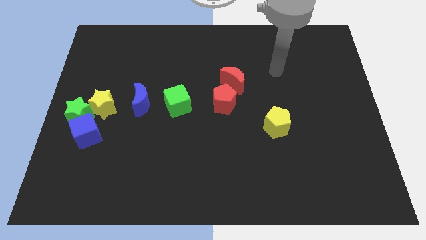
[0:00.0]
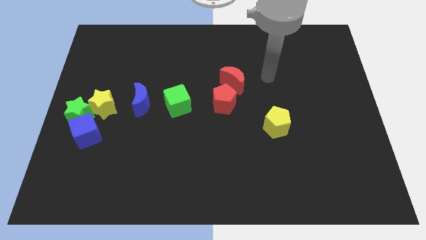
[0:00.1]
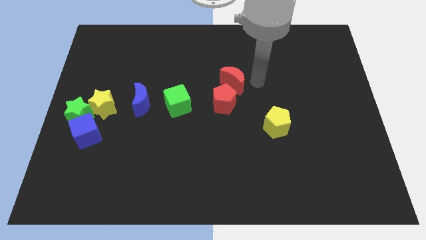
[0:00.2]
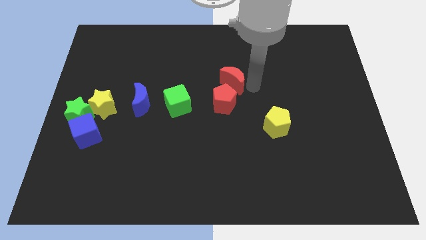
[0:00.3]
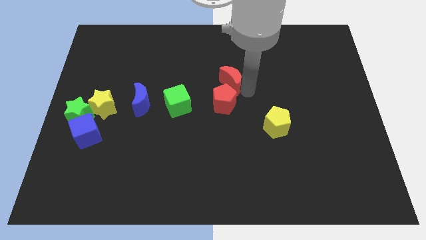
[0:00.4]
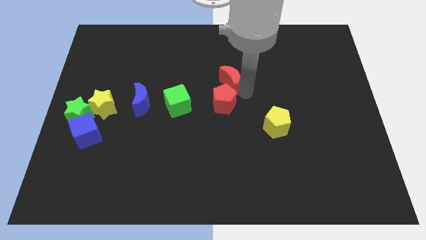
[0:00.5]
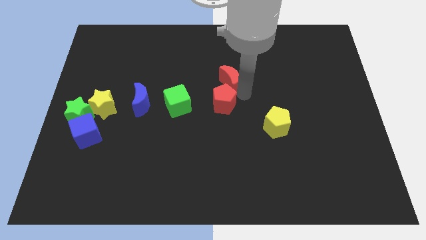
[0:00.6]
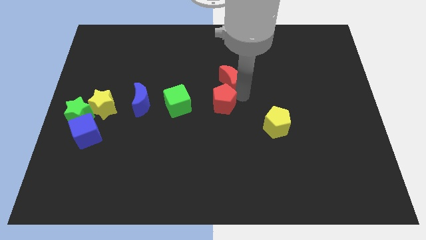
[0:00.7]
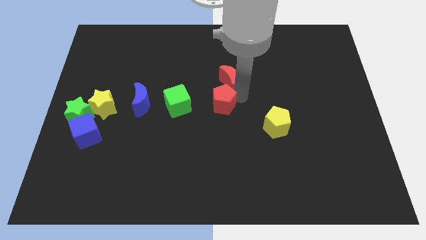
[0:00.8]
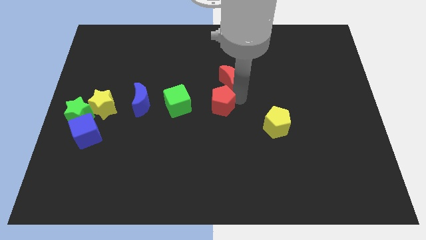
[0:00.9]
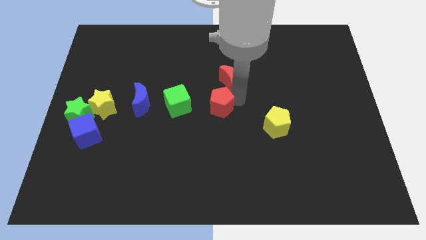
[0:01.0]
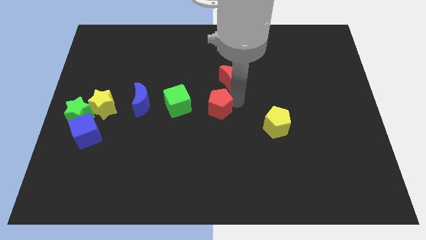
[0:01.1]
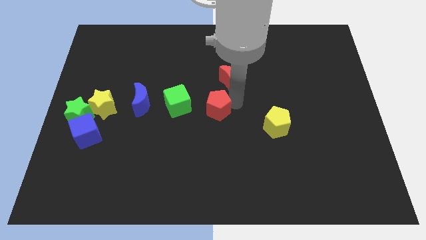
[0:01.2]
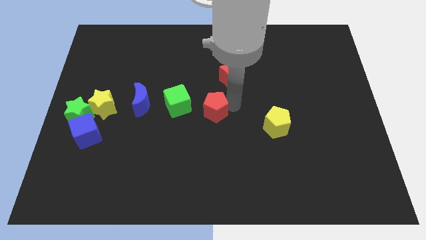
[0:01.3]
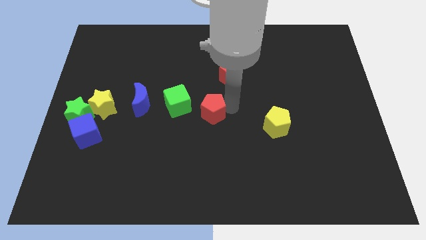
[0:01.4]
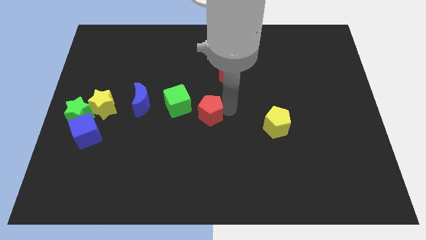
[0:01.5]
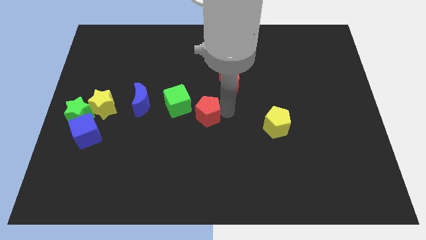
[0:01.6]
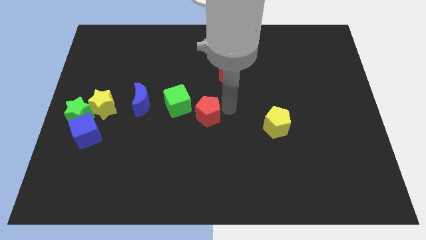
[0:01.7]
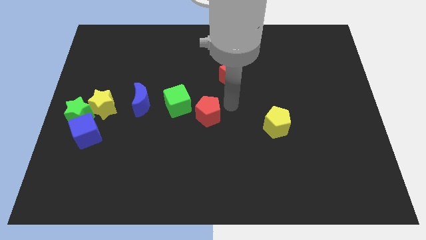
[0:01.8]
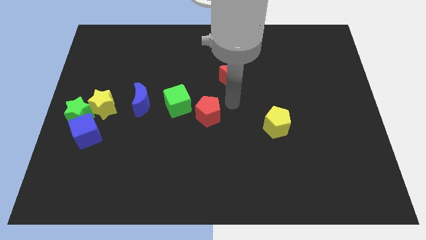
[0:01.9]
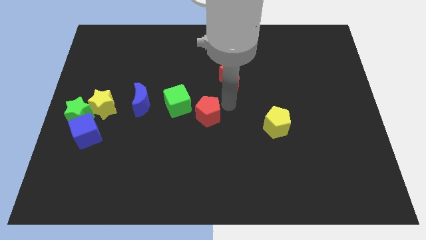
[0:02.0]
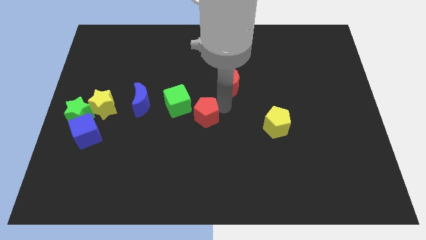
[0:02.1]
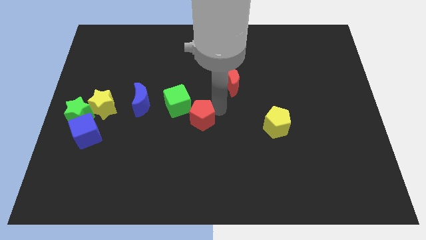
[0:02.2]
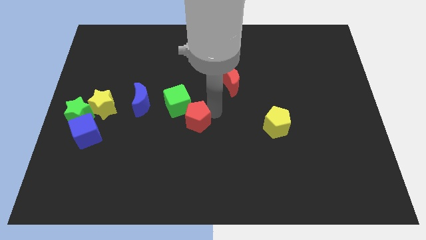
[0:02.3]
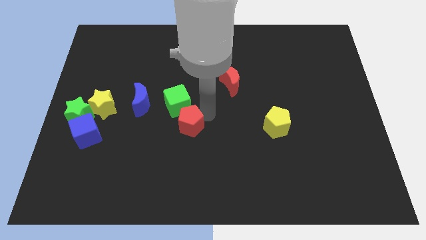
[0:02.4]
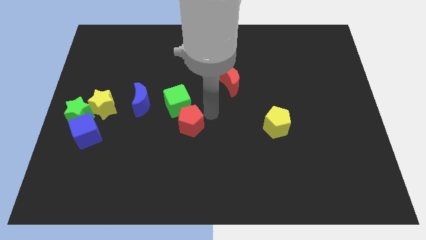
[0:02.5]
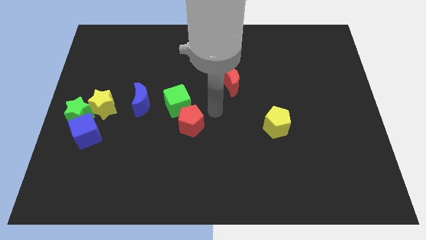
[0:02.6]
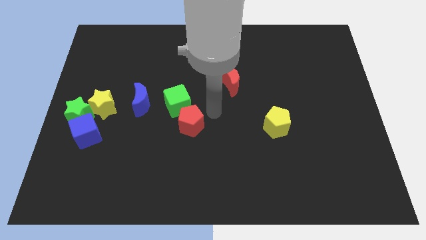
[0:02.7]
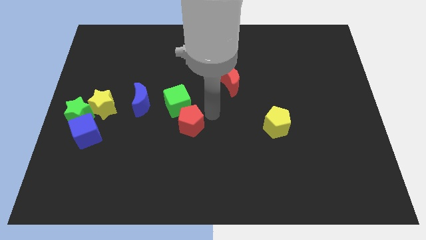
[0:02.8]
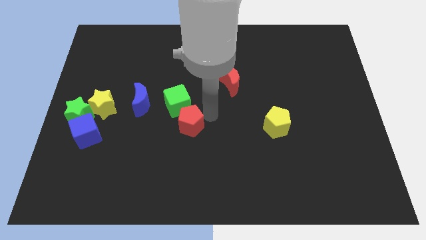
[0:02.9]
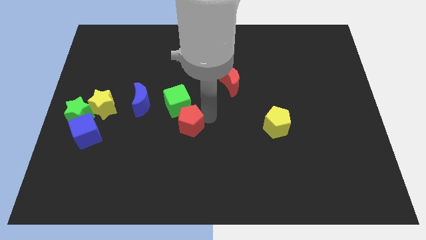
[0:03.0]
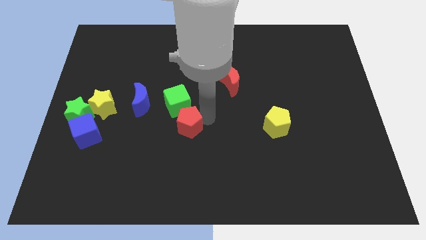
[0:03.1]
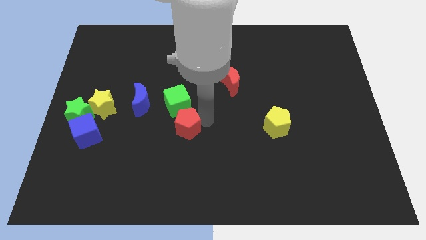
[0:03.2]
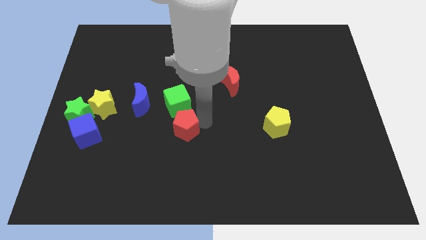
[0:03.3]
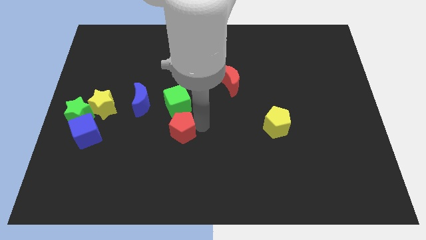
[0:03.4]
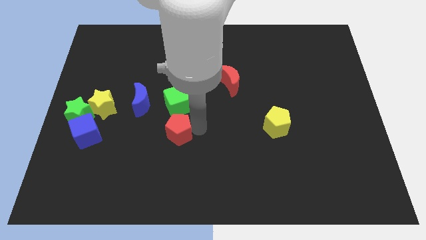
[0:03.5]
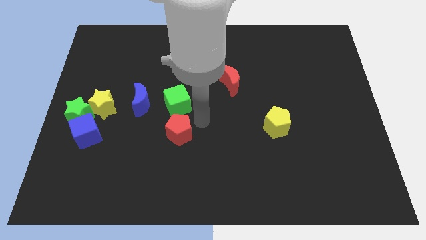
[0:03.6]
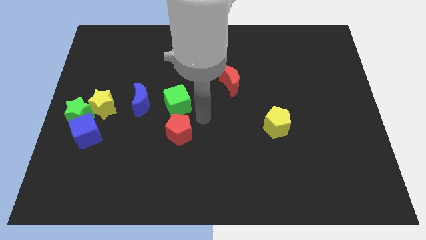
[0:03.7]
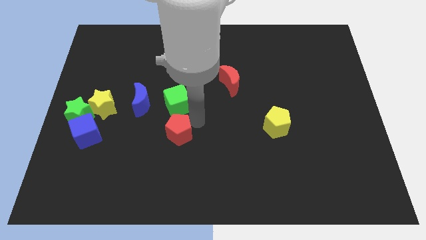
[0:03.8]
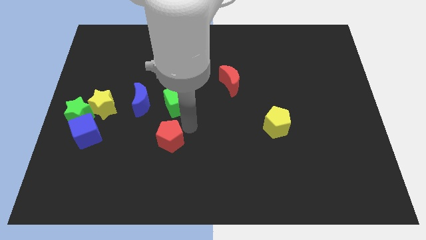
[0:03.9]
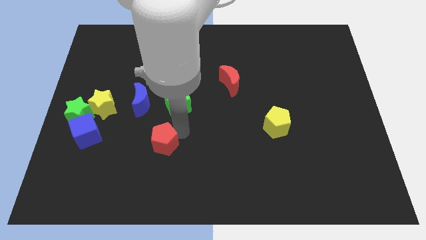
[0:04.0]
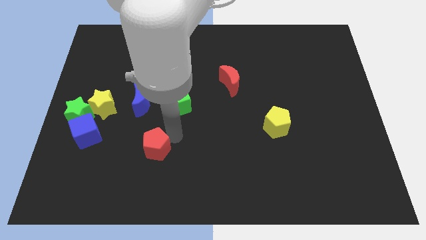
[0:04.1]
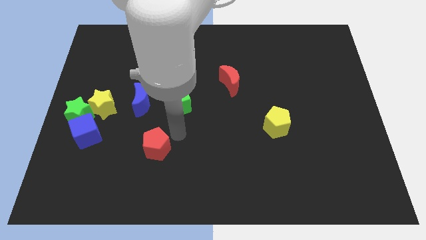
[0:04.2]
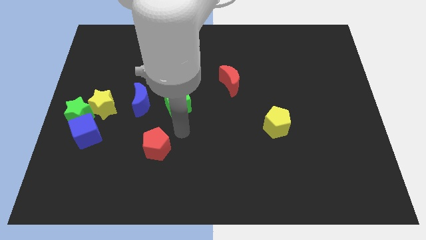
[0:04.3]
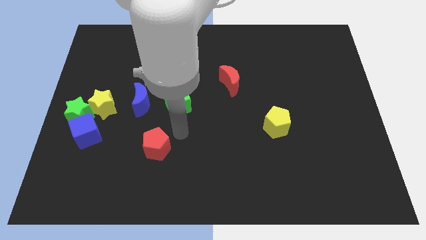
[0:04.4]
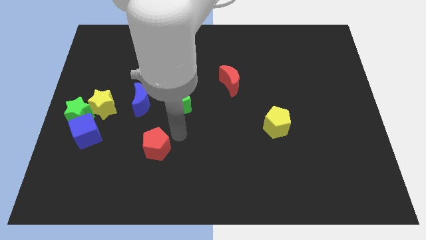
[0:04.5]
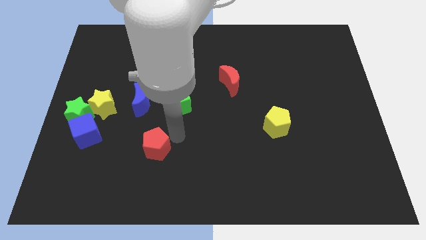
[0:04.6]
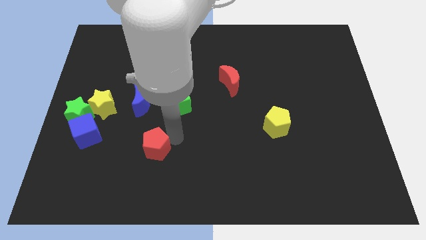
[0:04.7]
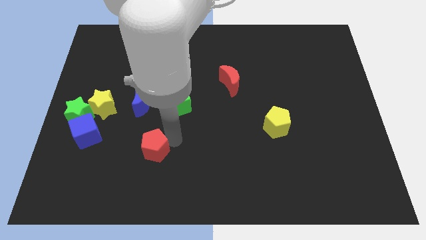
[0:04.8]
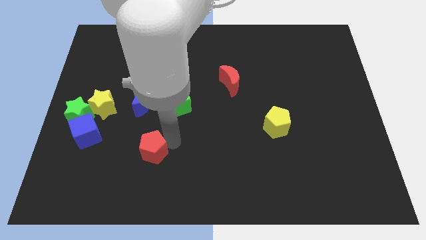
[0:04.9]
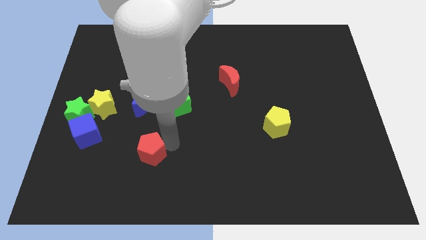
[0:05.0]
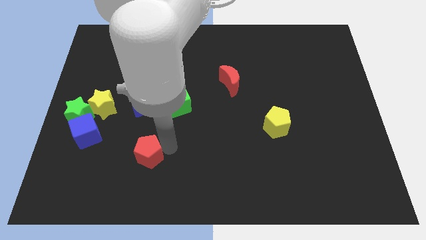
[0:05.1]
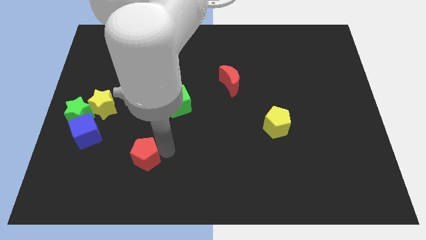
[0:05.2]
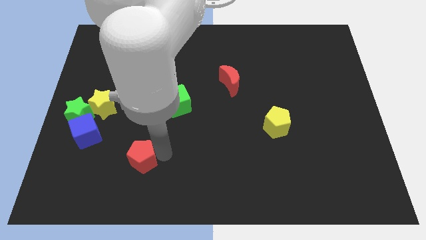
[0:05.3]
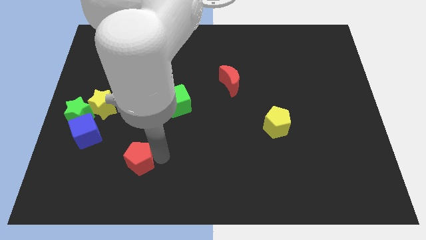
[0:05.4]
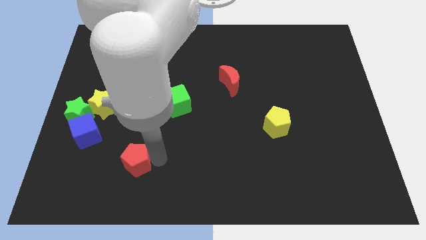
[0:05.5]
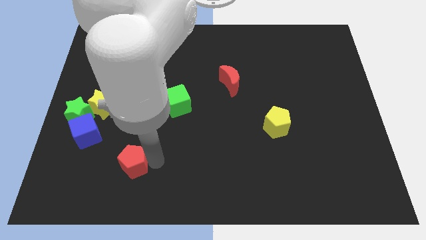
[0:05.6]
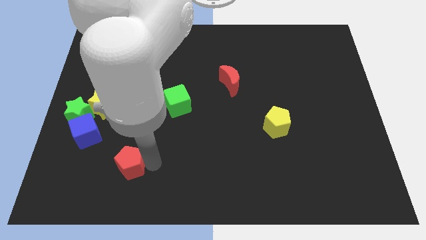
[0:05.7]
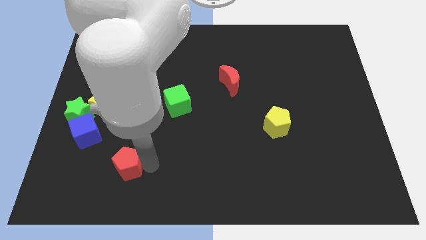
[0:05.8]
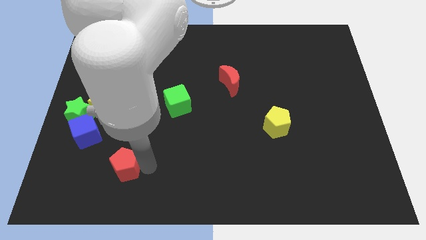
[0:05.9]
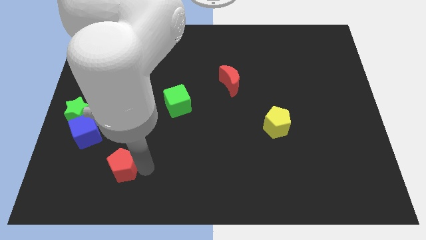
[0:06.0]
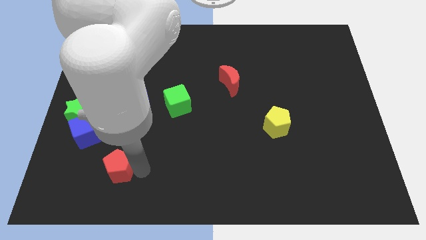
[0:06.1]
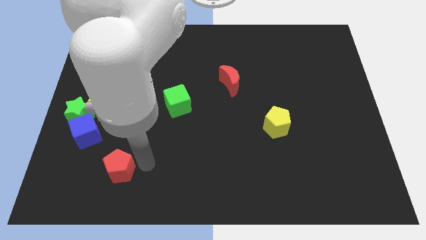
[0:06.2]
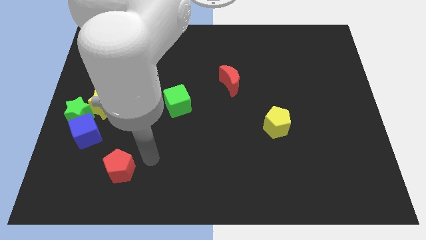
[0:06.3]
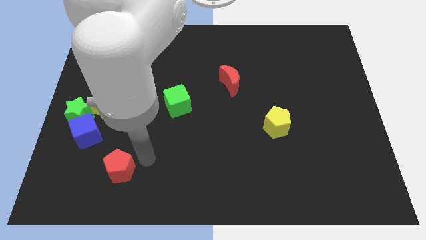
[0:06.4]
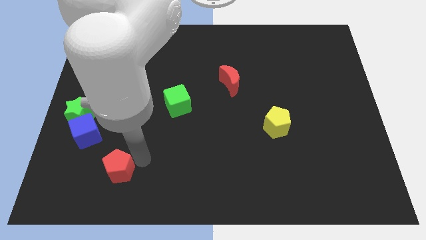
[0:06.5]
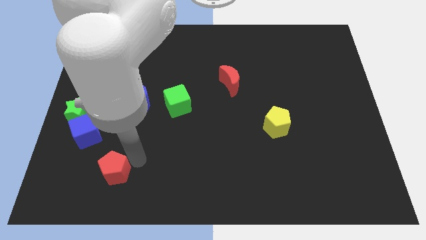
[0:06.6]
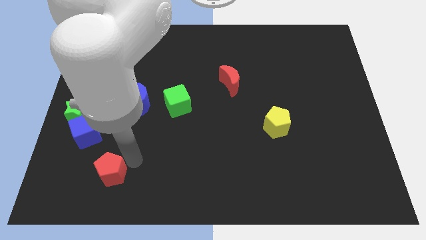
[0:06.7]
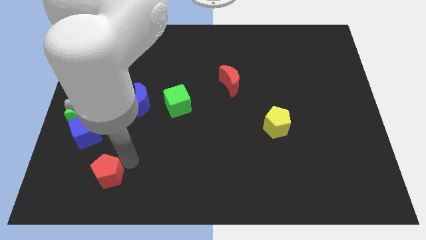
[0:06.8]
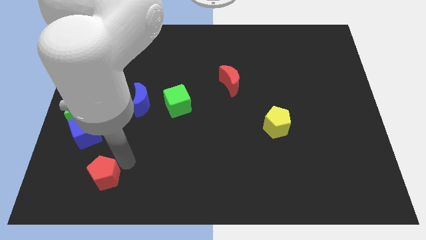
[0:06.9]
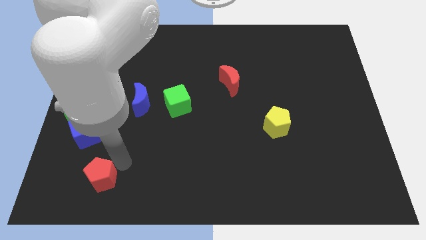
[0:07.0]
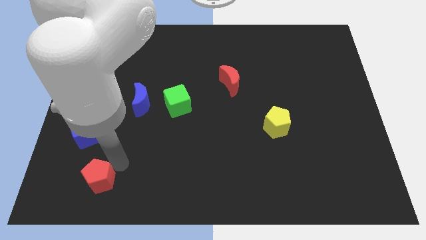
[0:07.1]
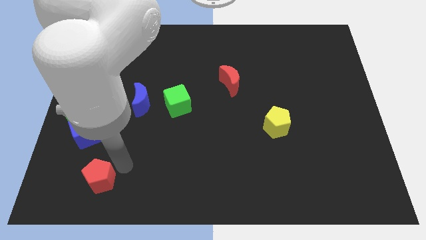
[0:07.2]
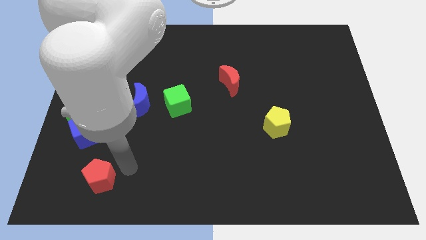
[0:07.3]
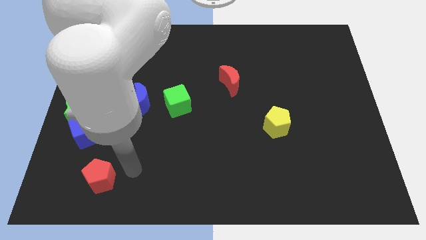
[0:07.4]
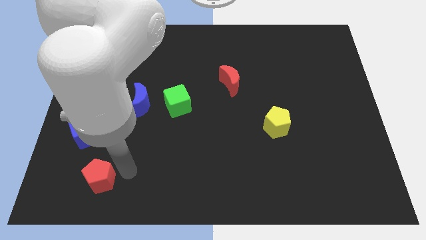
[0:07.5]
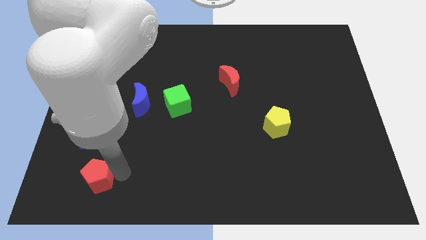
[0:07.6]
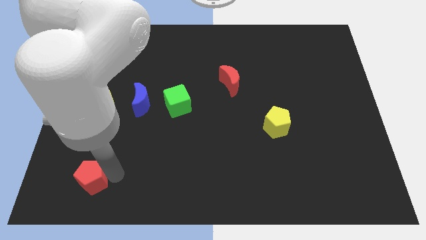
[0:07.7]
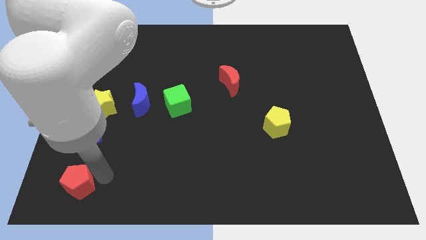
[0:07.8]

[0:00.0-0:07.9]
put the red pentagon to the bottom left of the board

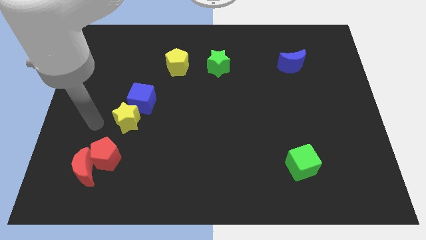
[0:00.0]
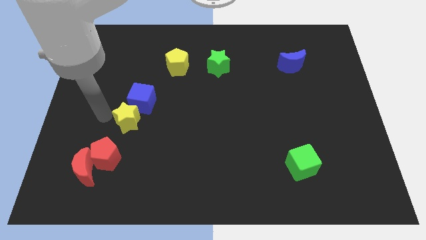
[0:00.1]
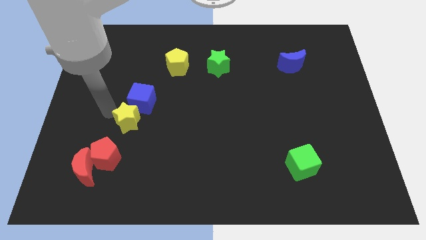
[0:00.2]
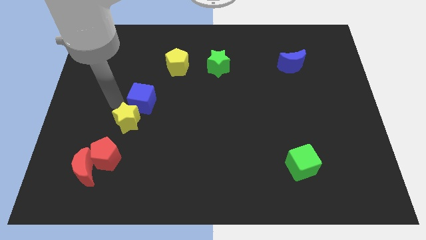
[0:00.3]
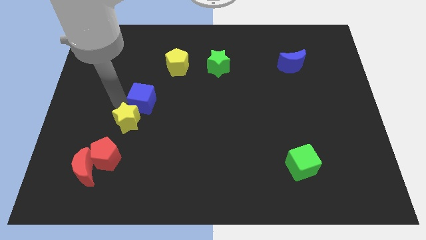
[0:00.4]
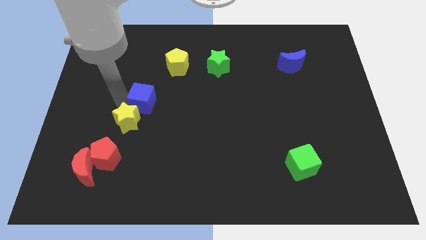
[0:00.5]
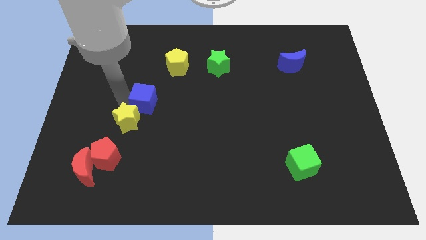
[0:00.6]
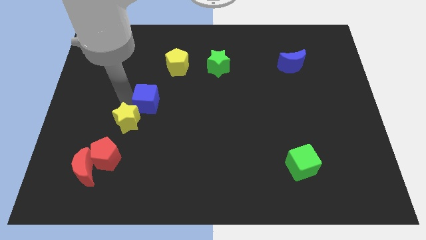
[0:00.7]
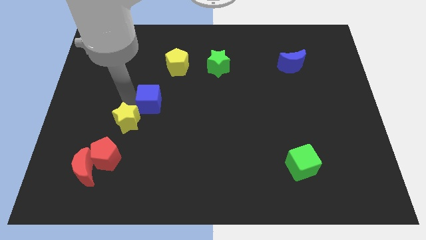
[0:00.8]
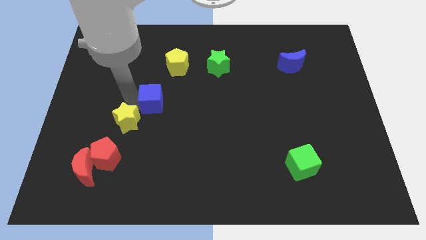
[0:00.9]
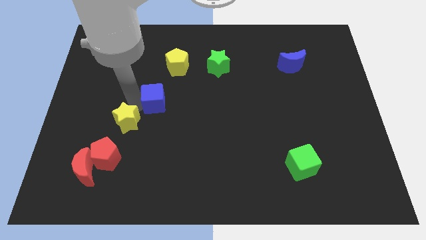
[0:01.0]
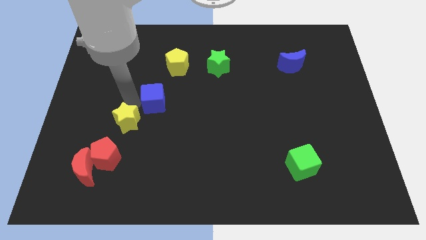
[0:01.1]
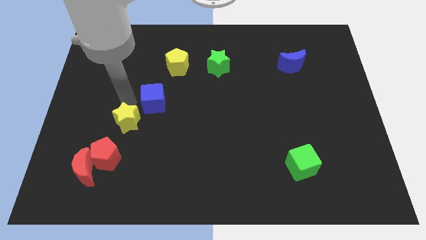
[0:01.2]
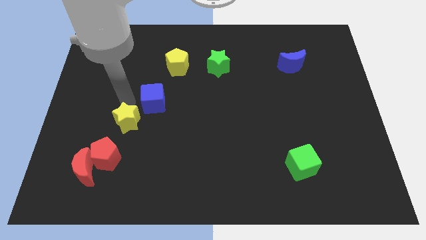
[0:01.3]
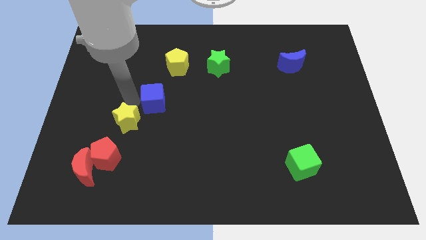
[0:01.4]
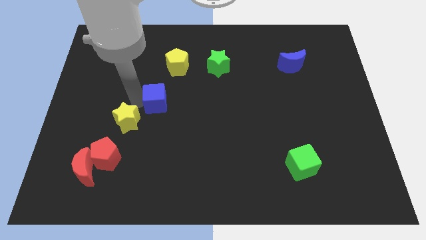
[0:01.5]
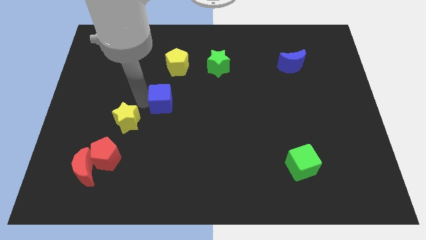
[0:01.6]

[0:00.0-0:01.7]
slide the blue cube to the middle of the board
